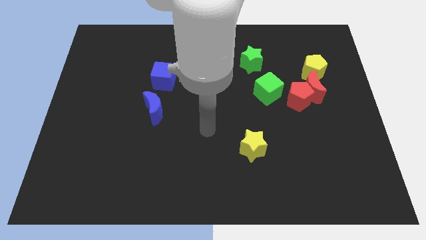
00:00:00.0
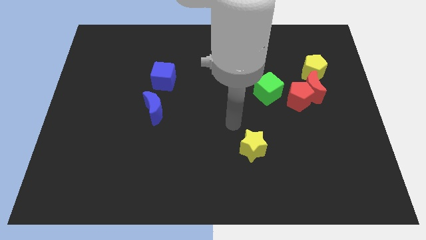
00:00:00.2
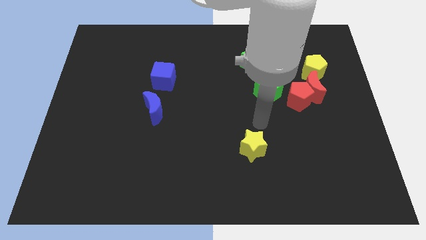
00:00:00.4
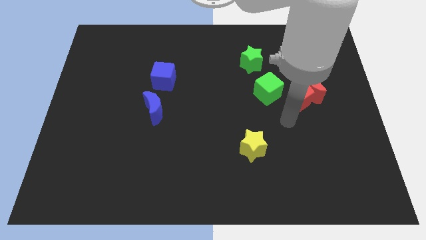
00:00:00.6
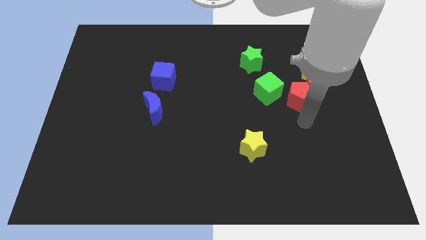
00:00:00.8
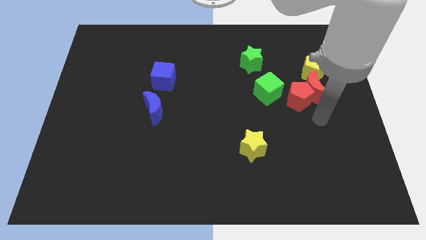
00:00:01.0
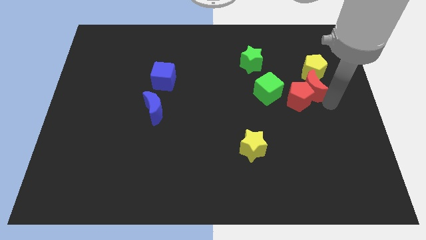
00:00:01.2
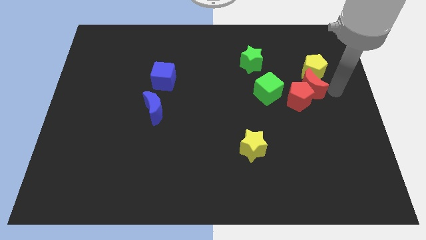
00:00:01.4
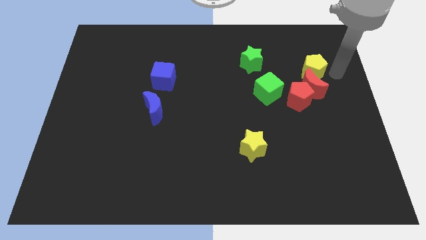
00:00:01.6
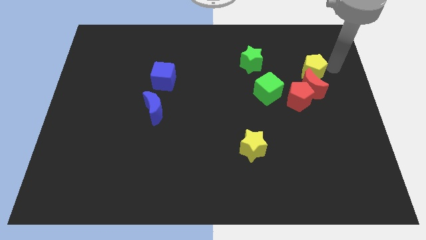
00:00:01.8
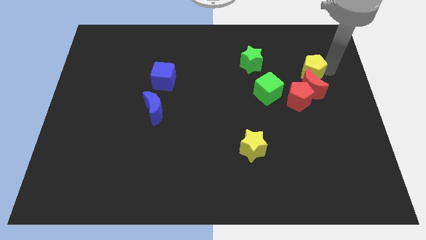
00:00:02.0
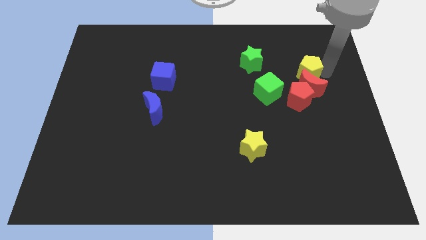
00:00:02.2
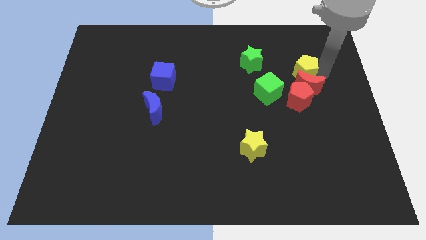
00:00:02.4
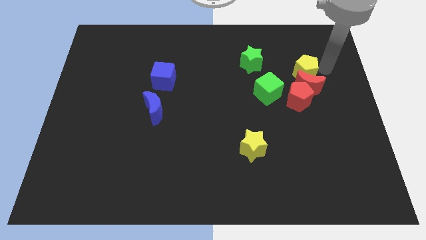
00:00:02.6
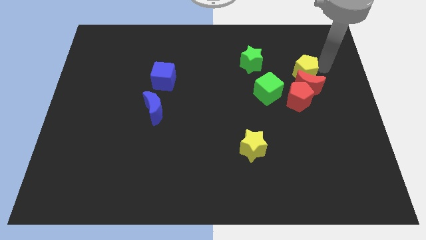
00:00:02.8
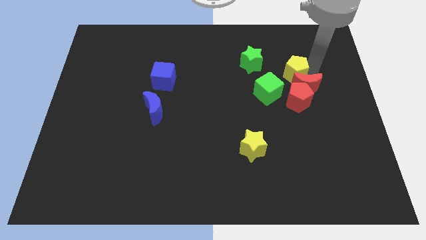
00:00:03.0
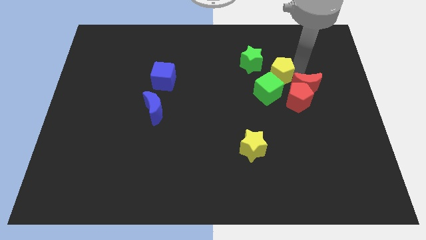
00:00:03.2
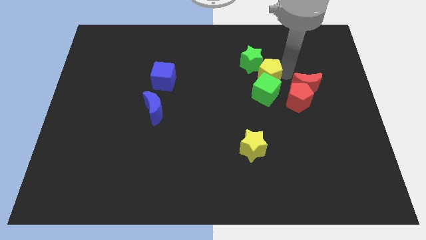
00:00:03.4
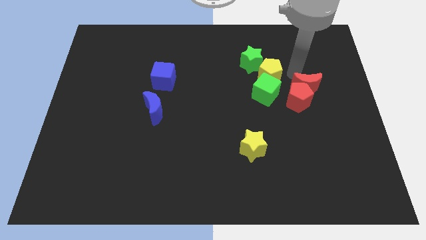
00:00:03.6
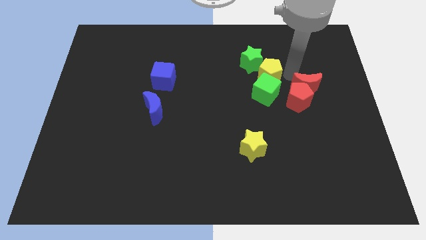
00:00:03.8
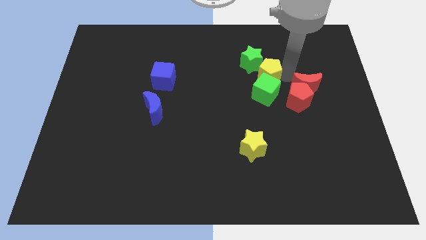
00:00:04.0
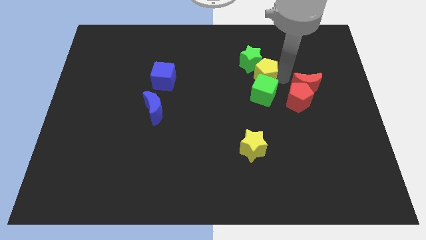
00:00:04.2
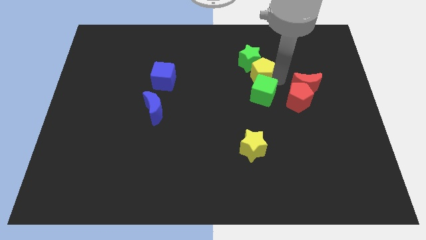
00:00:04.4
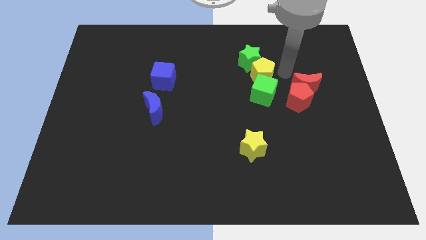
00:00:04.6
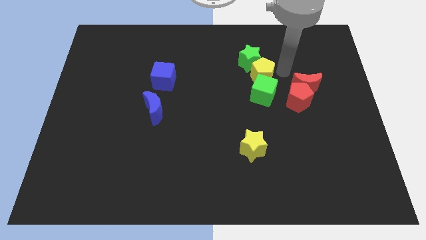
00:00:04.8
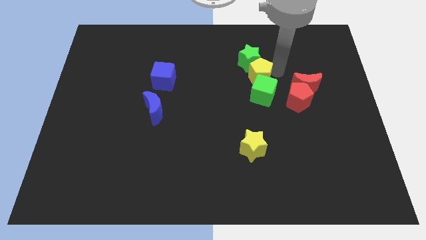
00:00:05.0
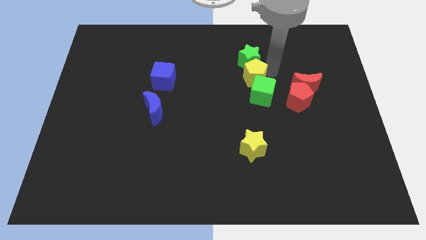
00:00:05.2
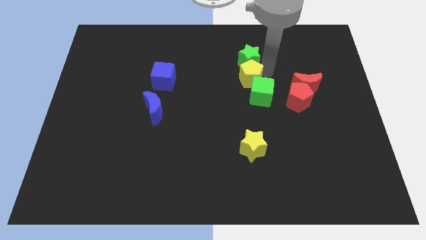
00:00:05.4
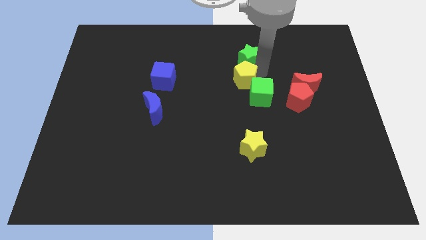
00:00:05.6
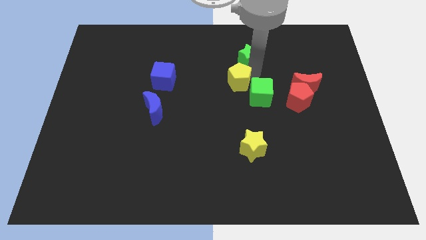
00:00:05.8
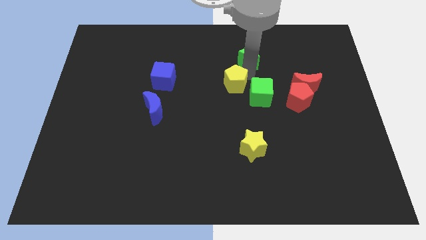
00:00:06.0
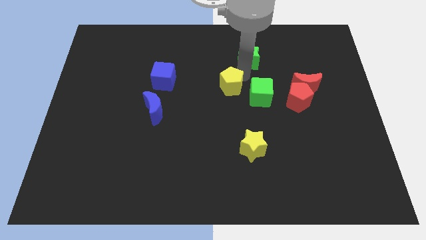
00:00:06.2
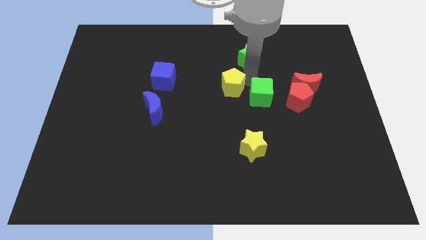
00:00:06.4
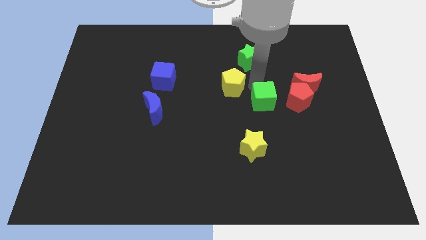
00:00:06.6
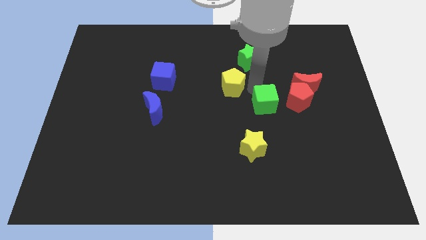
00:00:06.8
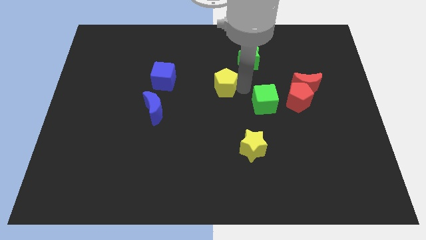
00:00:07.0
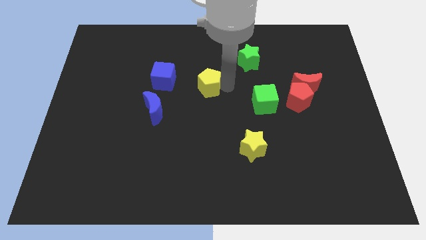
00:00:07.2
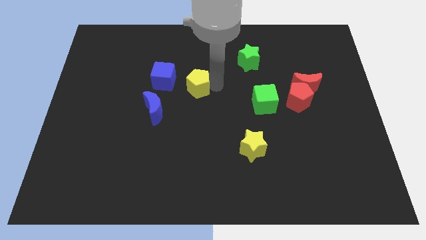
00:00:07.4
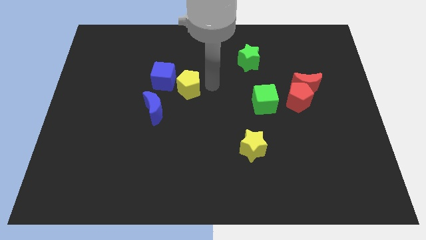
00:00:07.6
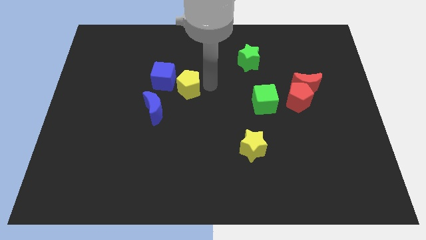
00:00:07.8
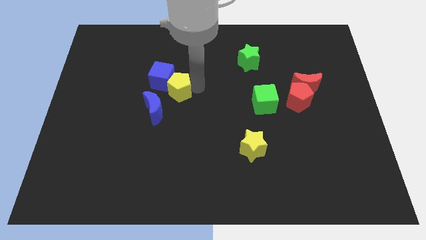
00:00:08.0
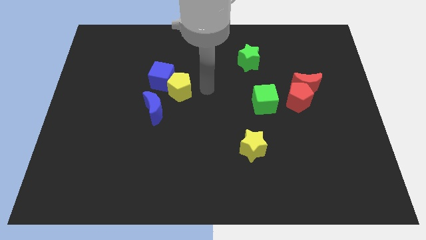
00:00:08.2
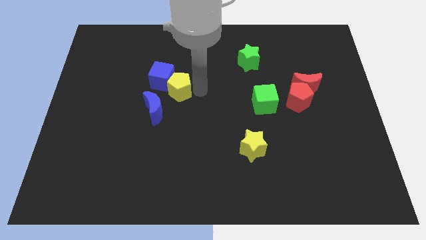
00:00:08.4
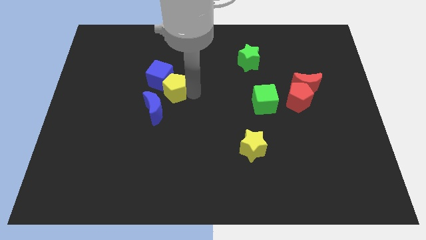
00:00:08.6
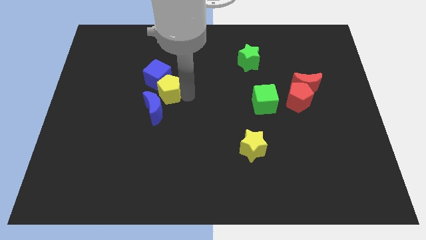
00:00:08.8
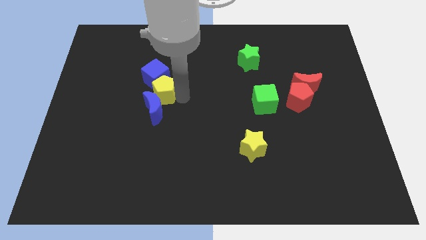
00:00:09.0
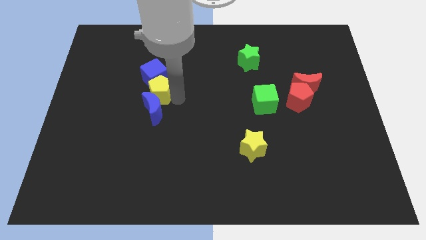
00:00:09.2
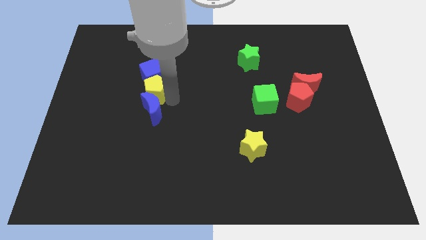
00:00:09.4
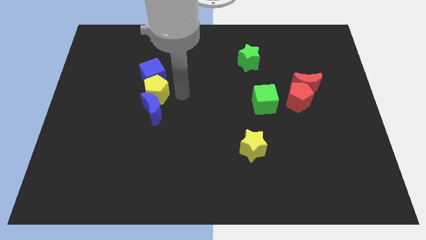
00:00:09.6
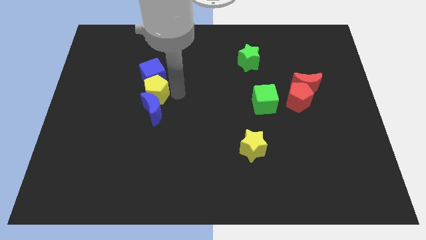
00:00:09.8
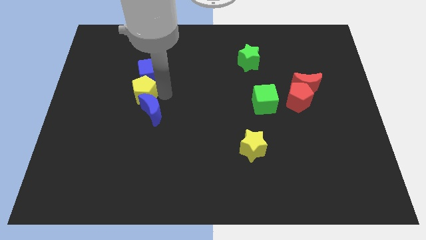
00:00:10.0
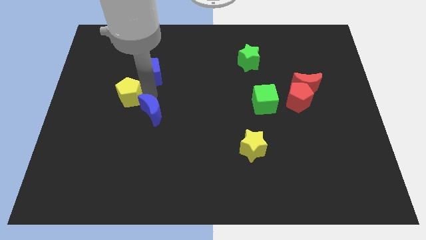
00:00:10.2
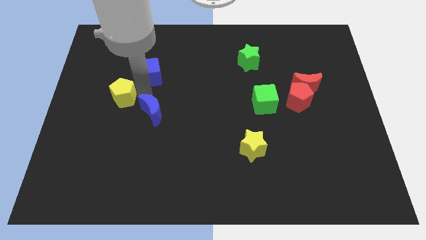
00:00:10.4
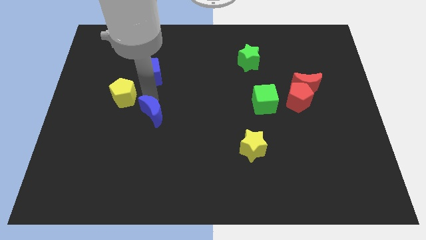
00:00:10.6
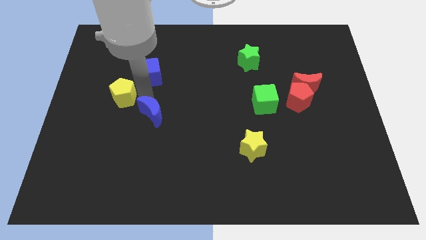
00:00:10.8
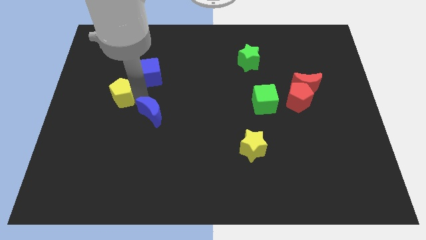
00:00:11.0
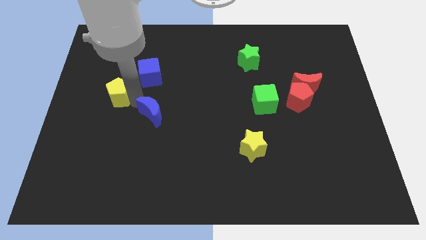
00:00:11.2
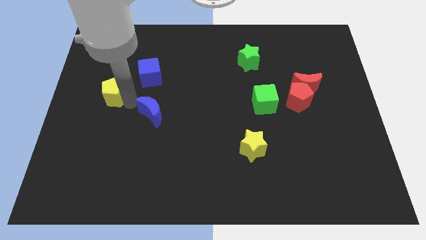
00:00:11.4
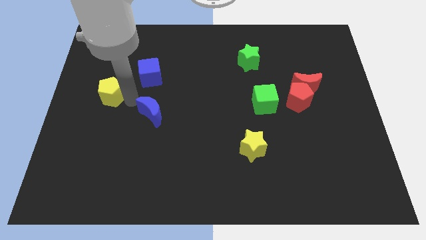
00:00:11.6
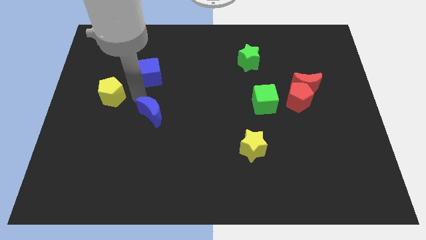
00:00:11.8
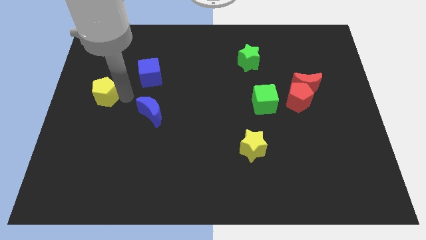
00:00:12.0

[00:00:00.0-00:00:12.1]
push the yellow pentagon to the center left
